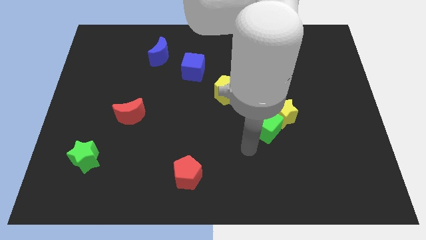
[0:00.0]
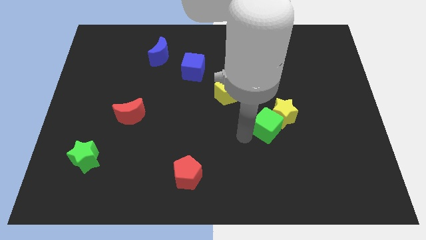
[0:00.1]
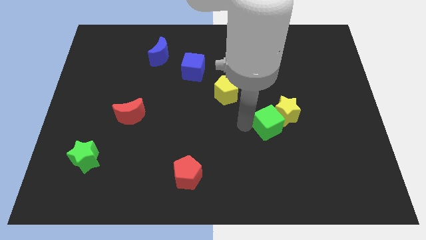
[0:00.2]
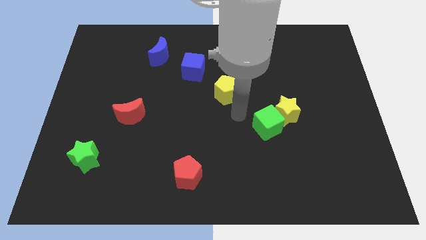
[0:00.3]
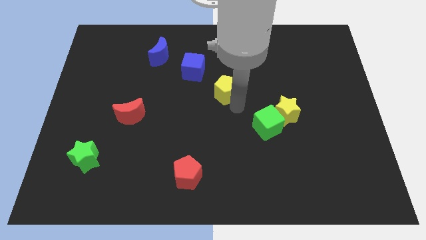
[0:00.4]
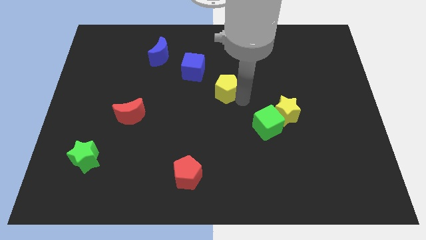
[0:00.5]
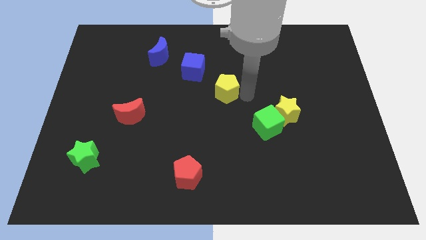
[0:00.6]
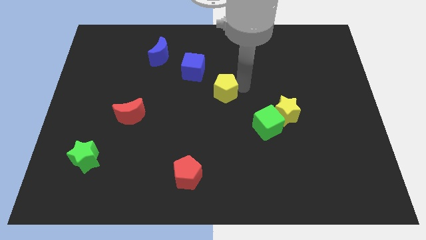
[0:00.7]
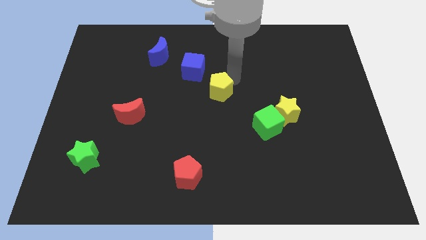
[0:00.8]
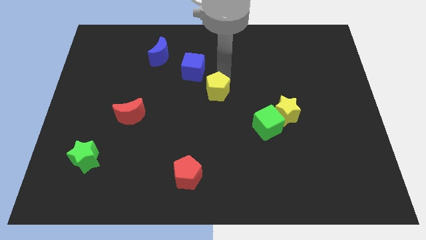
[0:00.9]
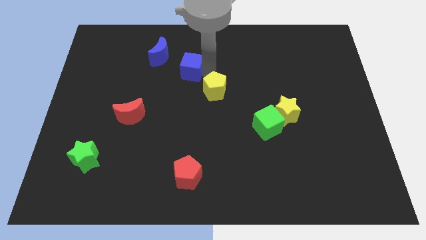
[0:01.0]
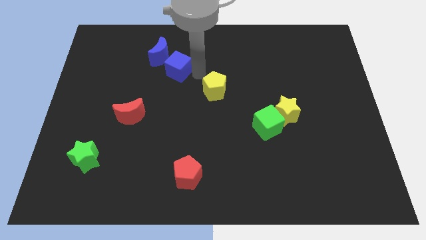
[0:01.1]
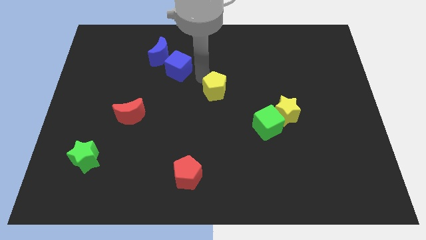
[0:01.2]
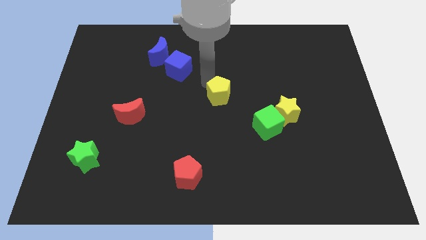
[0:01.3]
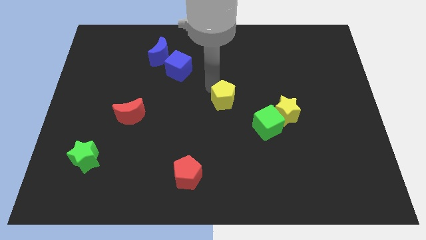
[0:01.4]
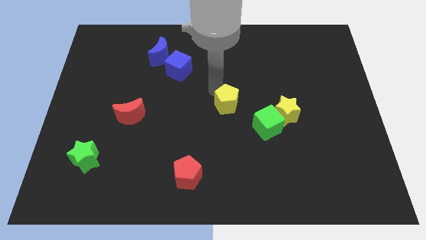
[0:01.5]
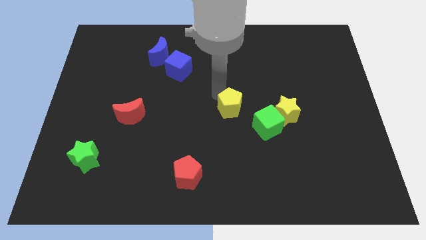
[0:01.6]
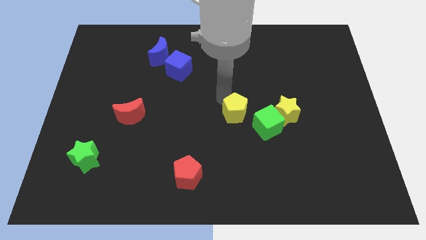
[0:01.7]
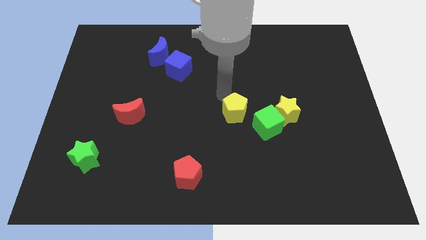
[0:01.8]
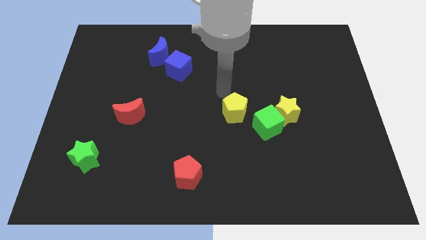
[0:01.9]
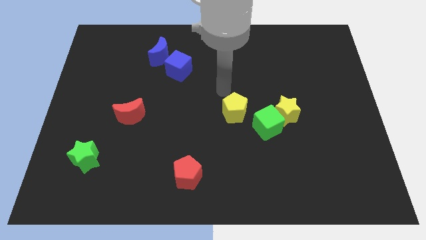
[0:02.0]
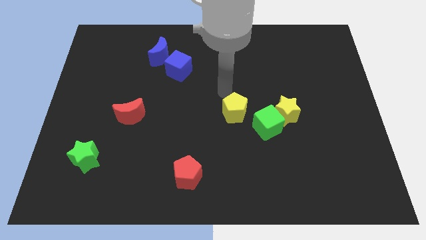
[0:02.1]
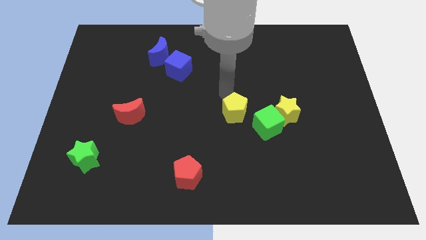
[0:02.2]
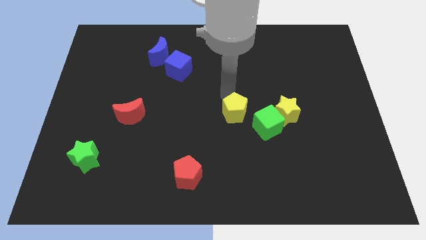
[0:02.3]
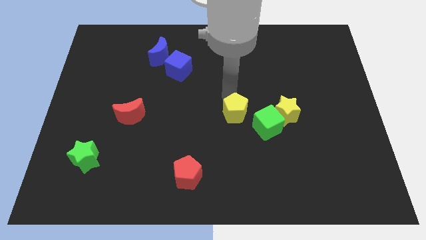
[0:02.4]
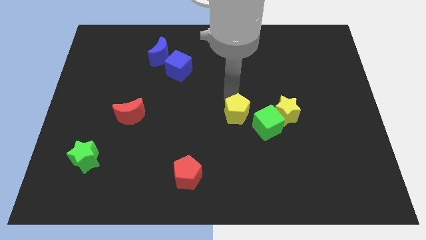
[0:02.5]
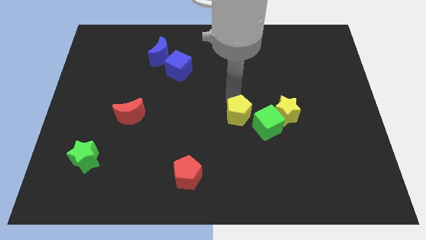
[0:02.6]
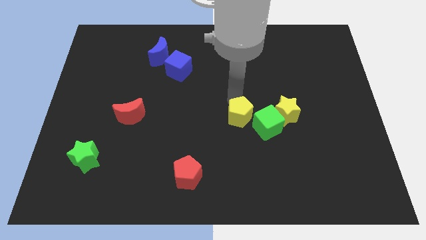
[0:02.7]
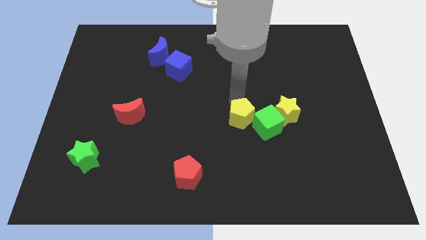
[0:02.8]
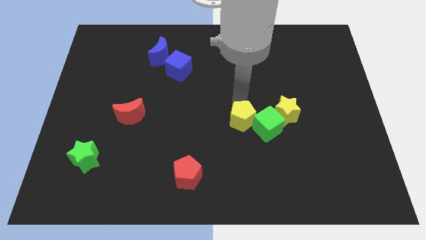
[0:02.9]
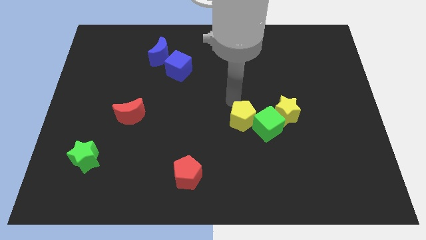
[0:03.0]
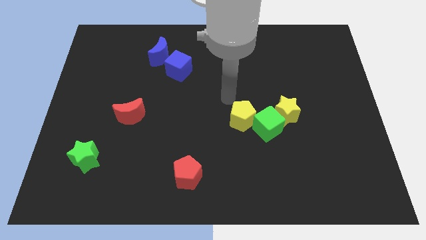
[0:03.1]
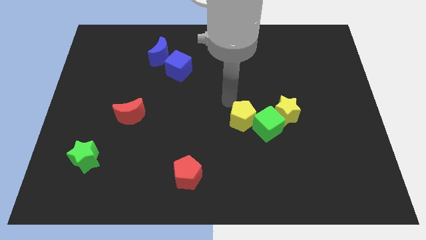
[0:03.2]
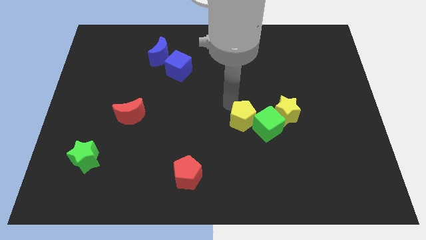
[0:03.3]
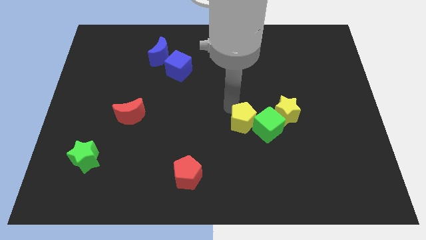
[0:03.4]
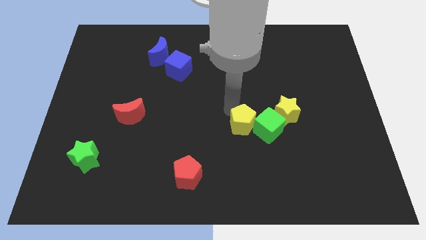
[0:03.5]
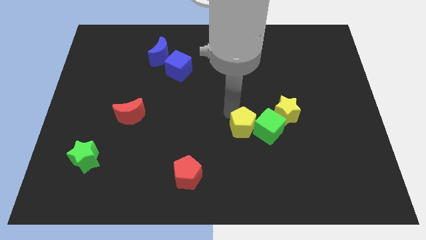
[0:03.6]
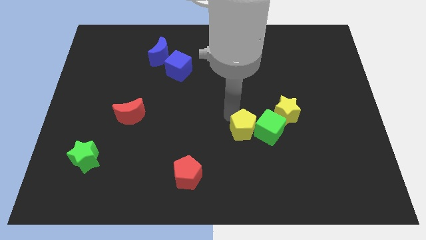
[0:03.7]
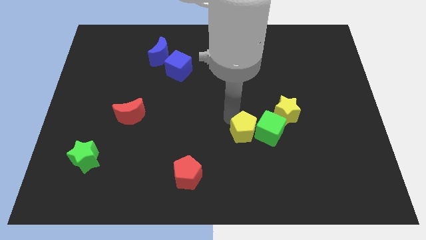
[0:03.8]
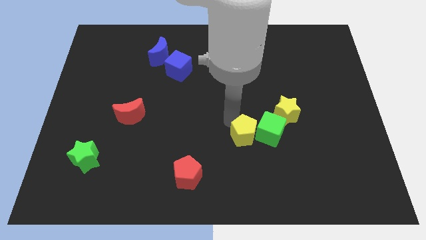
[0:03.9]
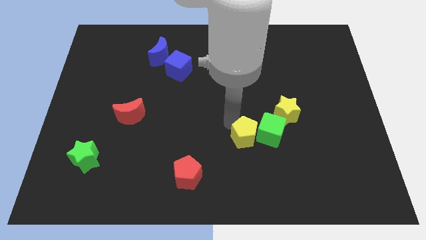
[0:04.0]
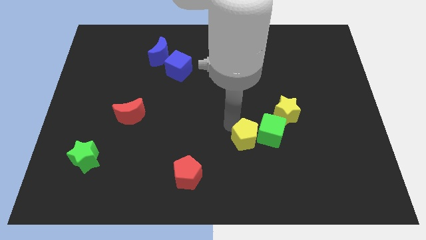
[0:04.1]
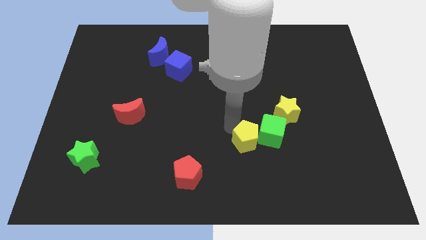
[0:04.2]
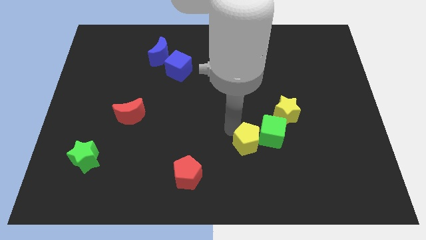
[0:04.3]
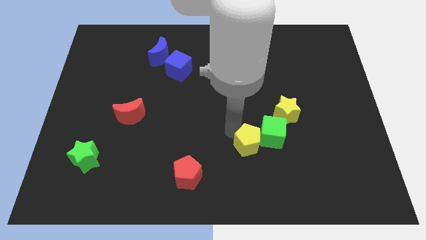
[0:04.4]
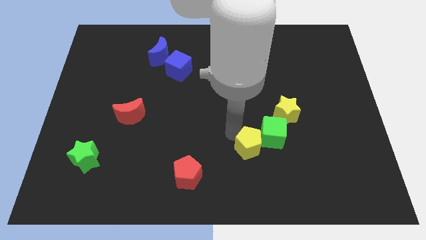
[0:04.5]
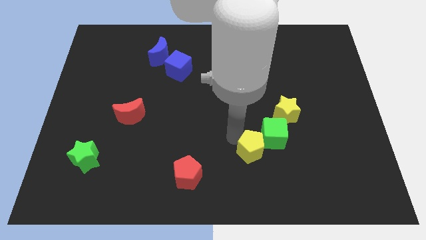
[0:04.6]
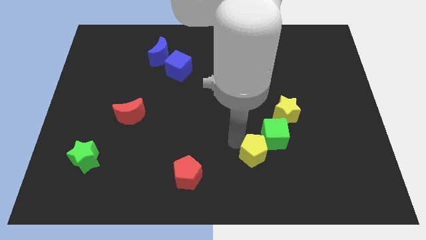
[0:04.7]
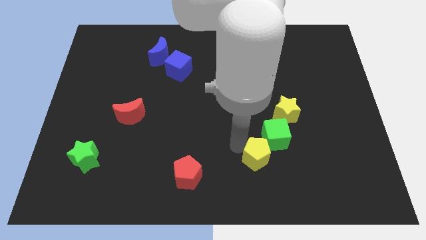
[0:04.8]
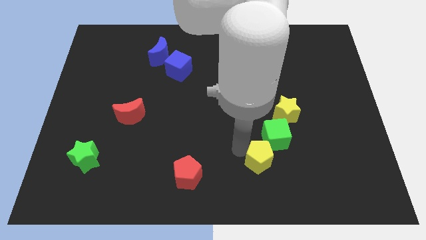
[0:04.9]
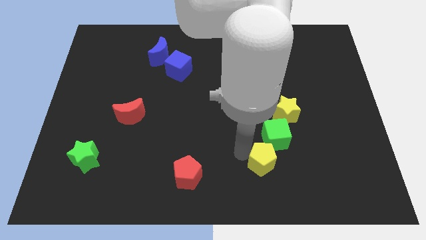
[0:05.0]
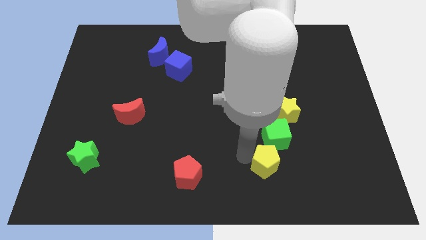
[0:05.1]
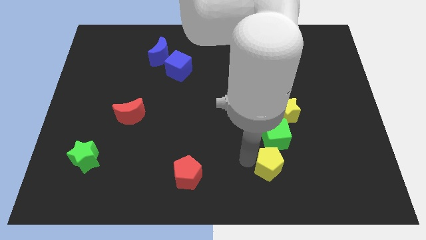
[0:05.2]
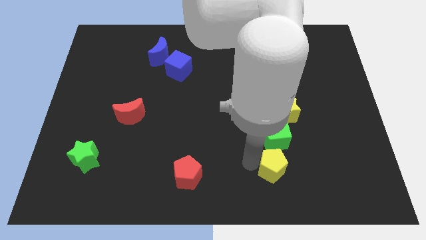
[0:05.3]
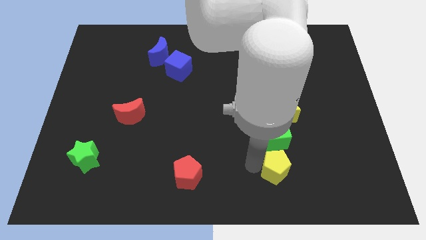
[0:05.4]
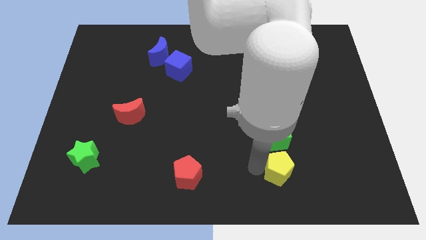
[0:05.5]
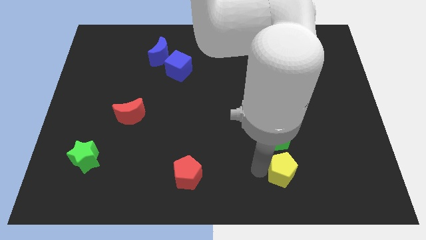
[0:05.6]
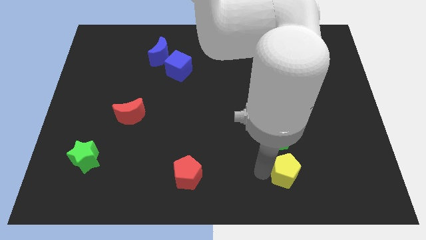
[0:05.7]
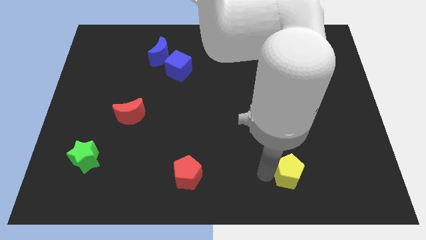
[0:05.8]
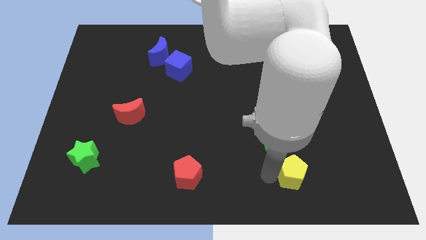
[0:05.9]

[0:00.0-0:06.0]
slide the yellow pentagon diagonally down and to the right of the green cube

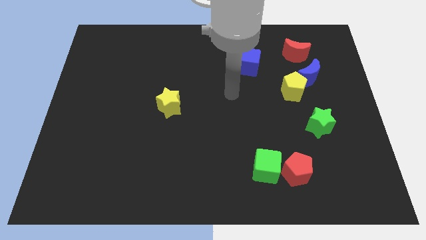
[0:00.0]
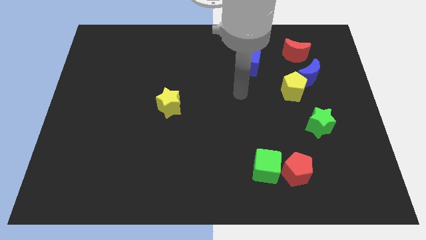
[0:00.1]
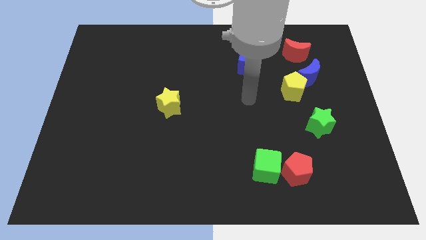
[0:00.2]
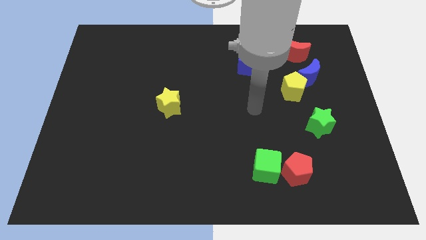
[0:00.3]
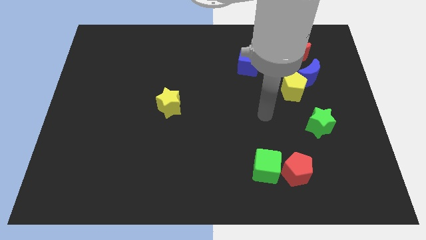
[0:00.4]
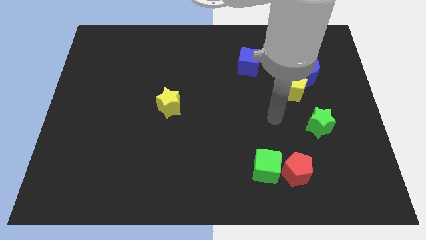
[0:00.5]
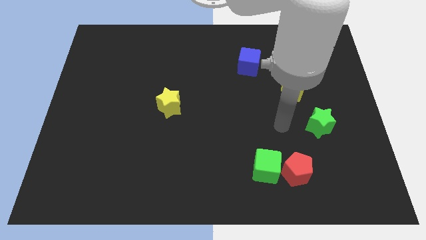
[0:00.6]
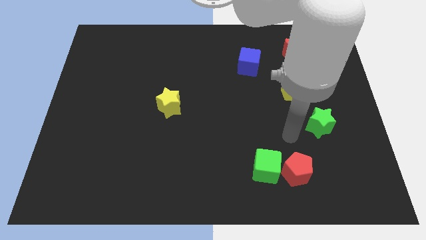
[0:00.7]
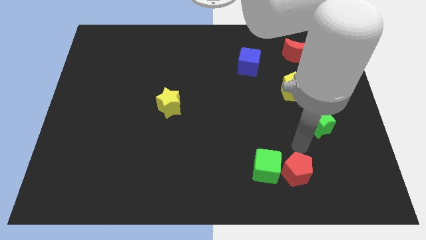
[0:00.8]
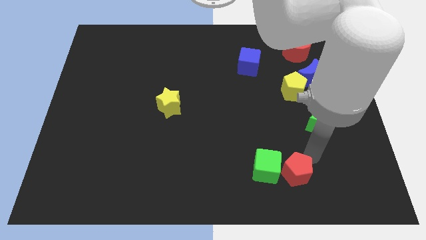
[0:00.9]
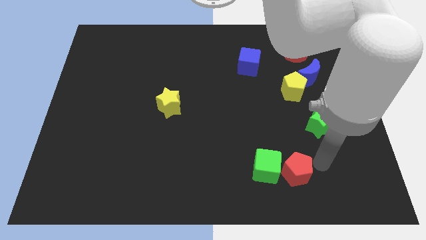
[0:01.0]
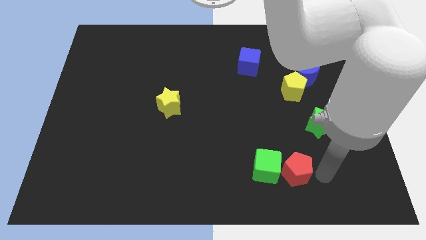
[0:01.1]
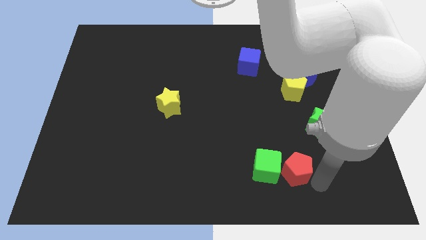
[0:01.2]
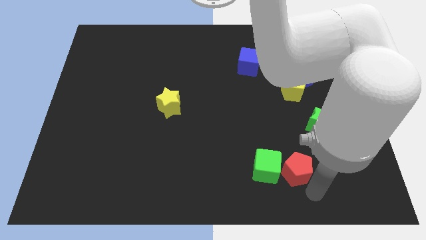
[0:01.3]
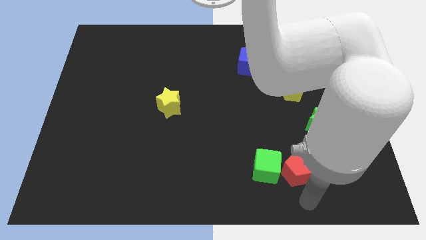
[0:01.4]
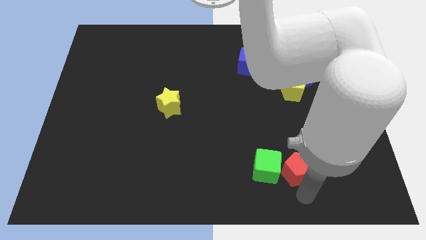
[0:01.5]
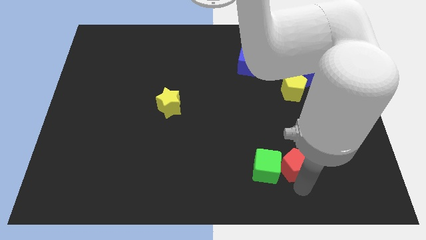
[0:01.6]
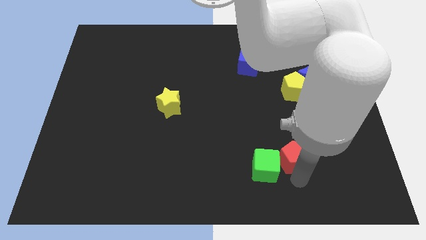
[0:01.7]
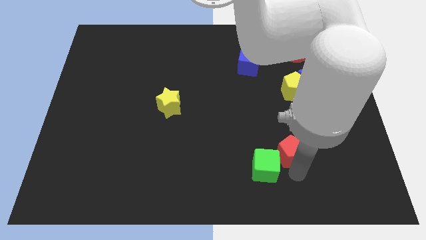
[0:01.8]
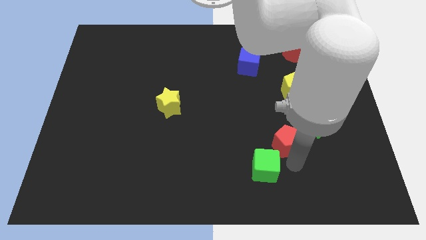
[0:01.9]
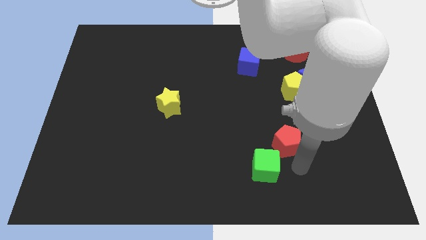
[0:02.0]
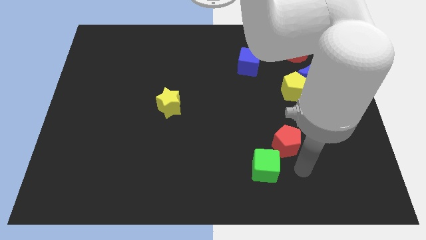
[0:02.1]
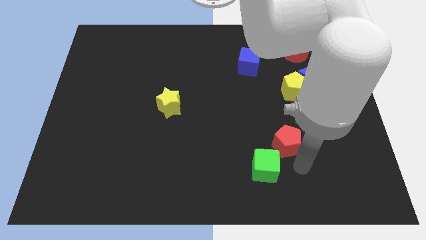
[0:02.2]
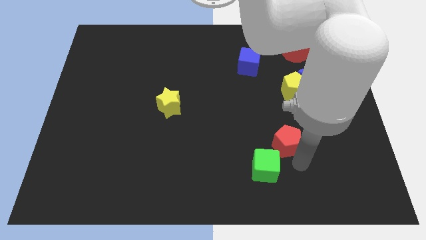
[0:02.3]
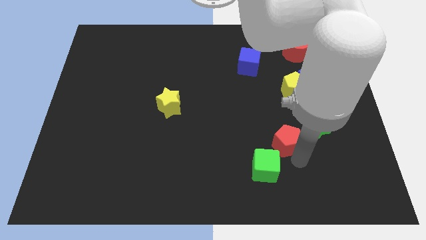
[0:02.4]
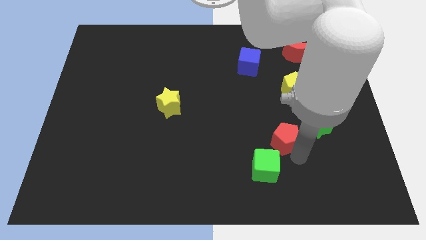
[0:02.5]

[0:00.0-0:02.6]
push the red pentagon just left of the green star

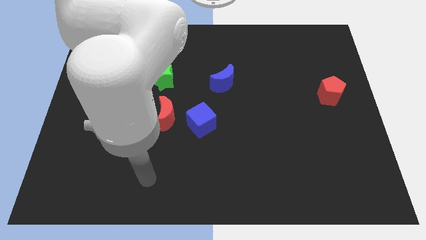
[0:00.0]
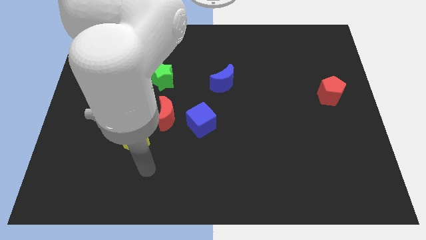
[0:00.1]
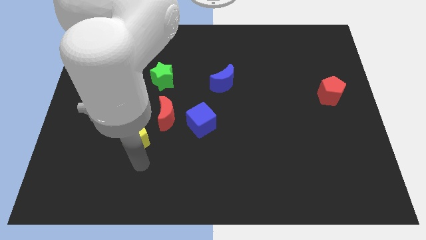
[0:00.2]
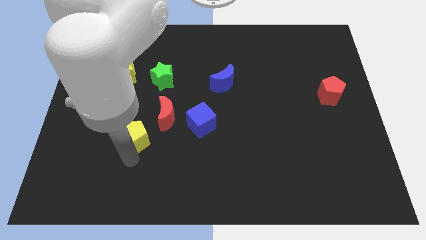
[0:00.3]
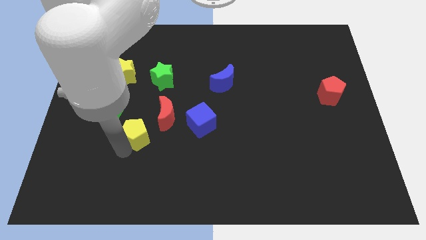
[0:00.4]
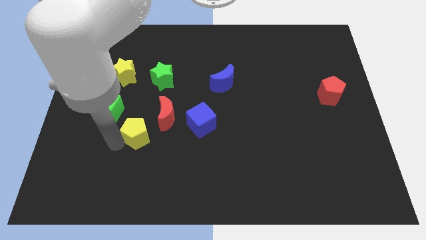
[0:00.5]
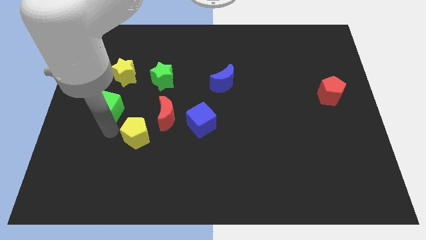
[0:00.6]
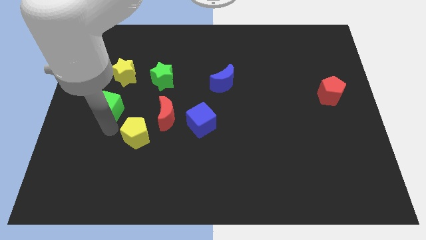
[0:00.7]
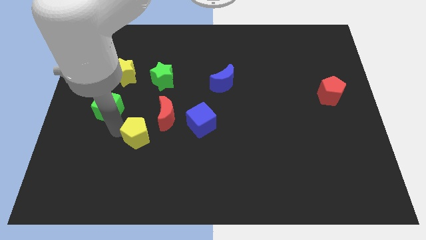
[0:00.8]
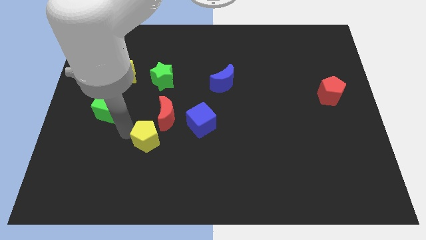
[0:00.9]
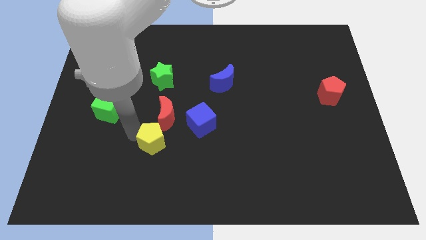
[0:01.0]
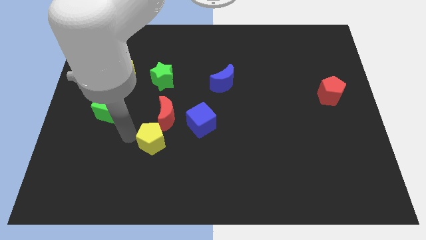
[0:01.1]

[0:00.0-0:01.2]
move the yellow pentagon to the bottom left side of the blue cube
